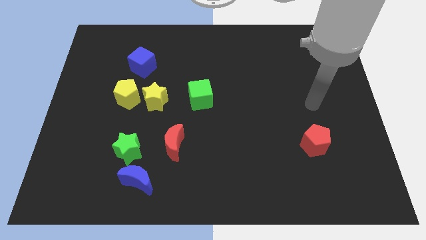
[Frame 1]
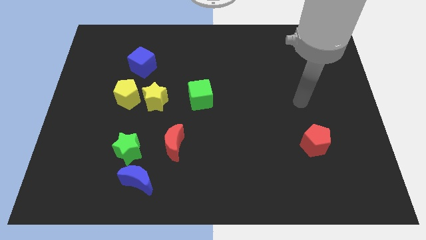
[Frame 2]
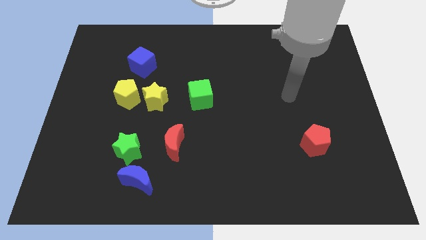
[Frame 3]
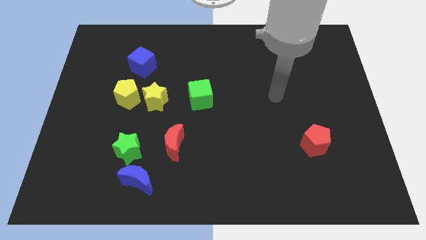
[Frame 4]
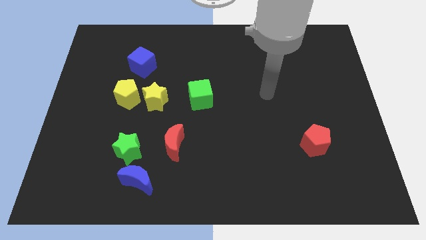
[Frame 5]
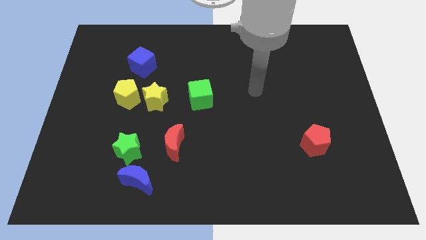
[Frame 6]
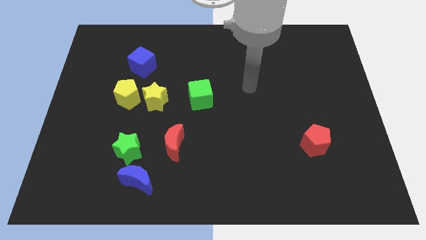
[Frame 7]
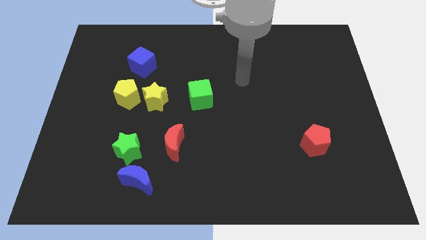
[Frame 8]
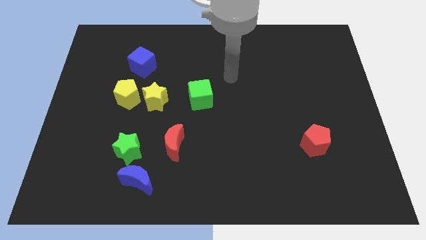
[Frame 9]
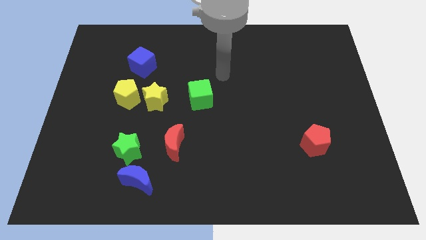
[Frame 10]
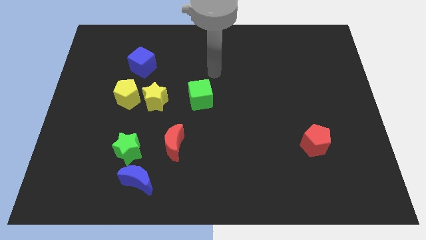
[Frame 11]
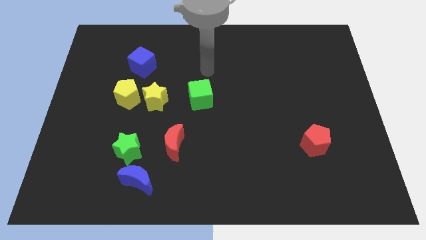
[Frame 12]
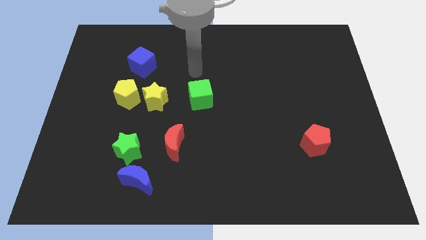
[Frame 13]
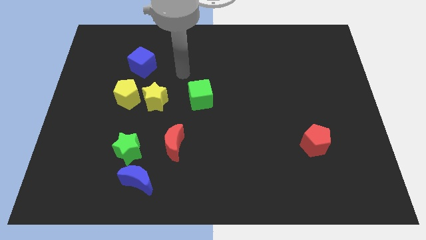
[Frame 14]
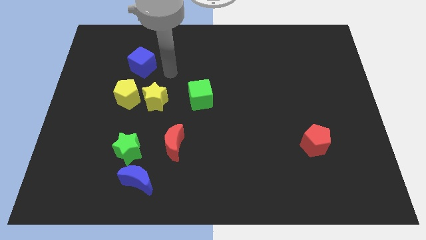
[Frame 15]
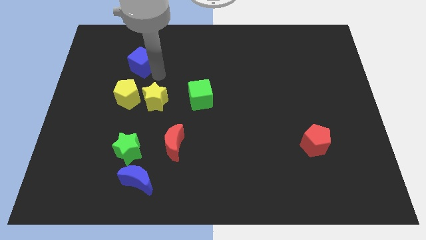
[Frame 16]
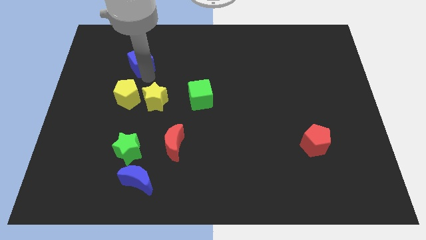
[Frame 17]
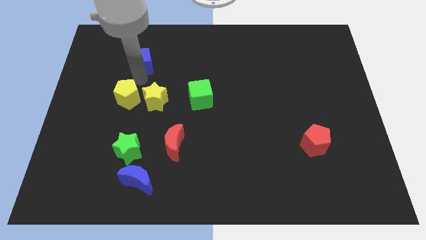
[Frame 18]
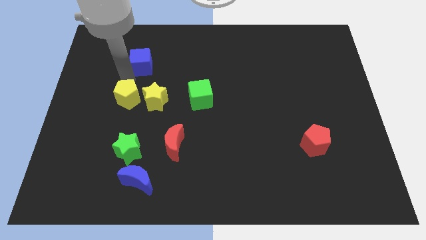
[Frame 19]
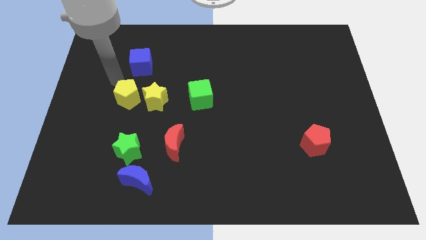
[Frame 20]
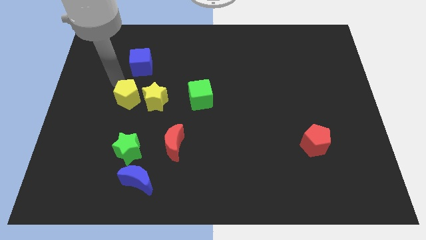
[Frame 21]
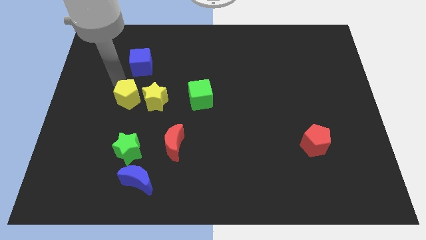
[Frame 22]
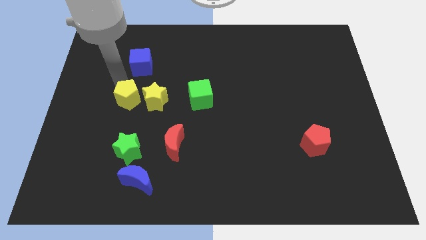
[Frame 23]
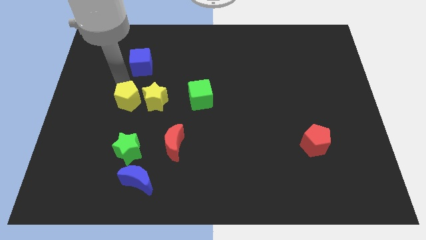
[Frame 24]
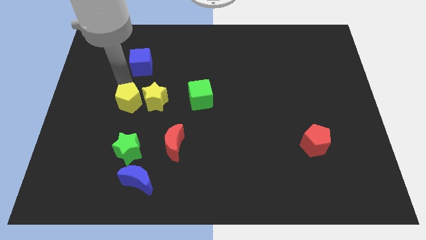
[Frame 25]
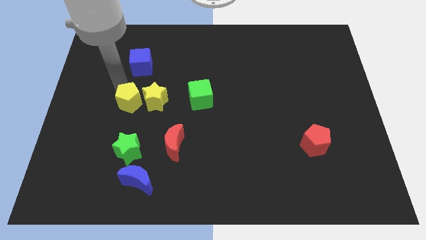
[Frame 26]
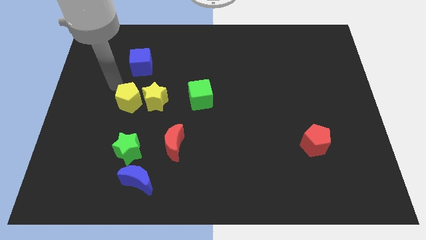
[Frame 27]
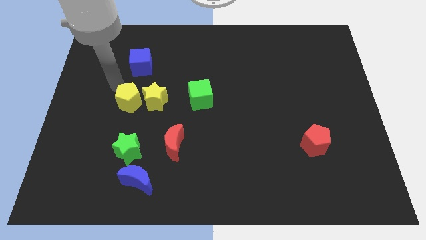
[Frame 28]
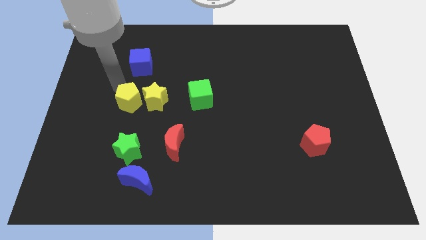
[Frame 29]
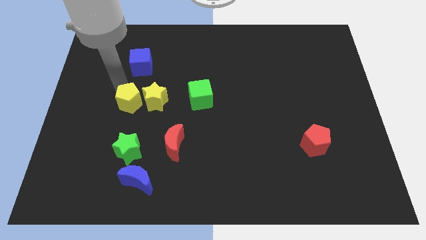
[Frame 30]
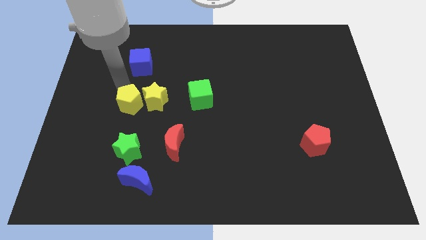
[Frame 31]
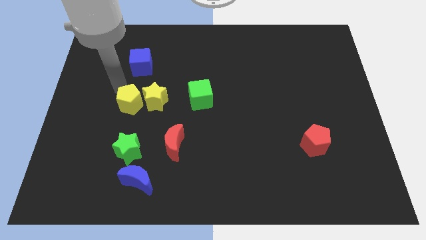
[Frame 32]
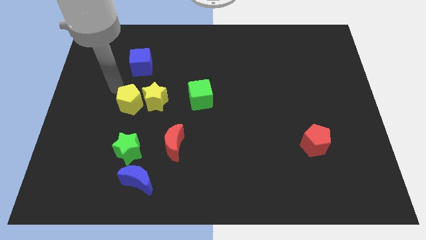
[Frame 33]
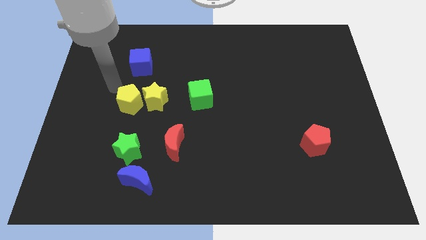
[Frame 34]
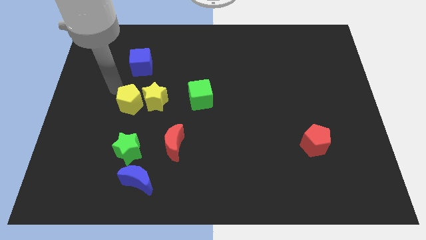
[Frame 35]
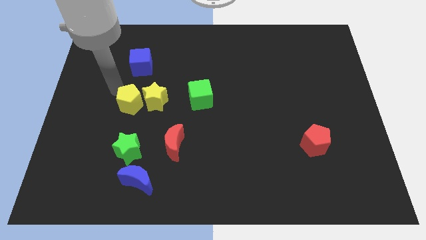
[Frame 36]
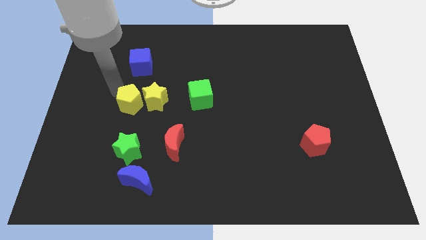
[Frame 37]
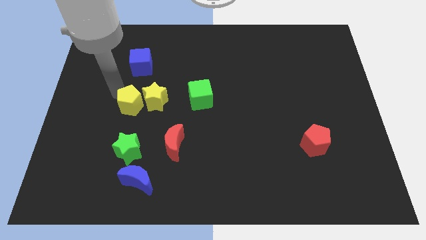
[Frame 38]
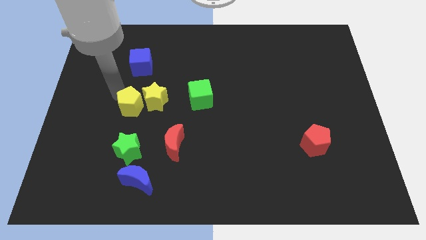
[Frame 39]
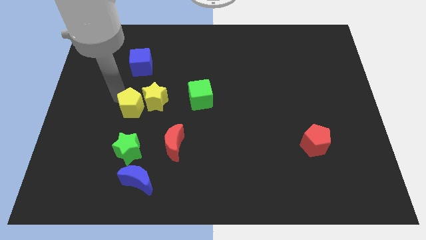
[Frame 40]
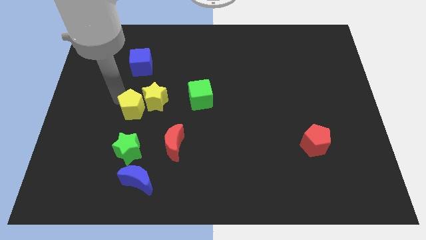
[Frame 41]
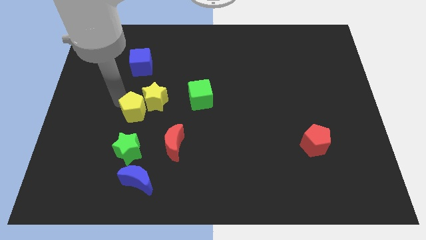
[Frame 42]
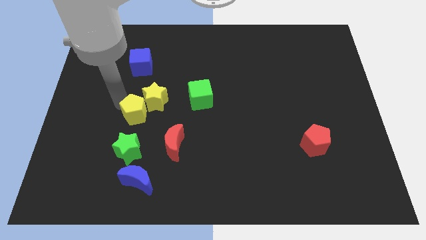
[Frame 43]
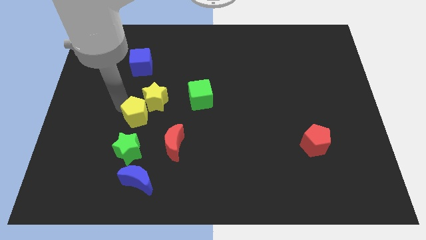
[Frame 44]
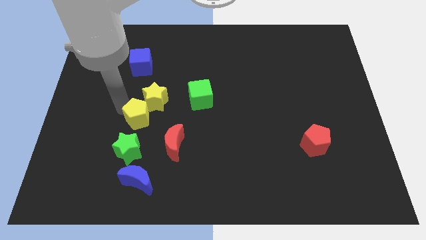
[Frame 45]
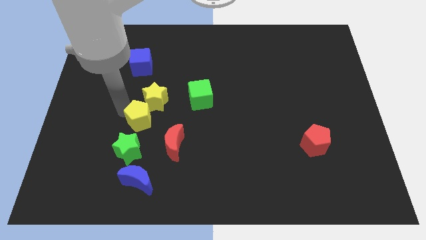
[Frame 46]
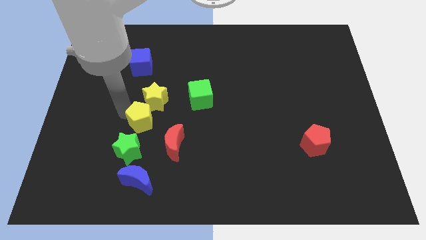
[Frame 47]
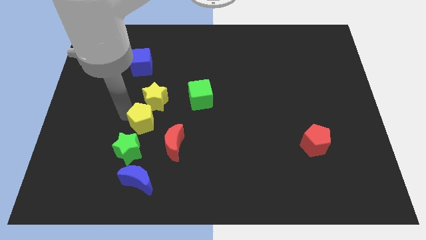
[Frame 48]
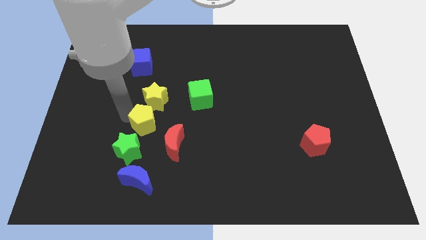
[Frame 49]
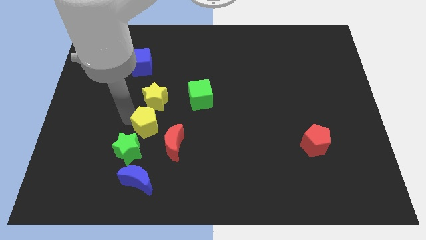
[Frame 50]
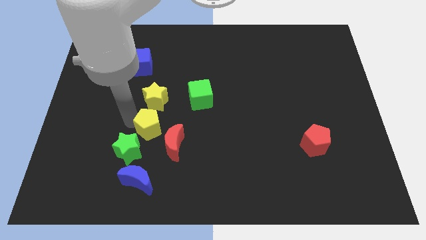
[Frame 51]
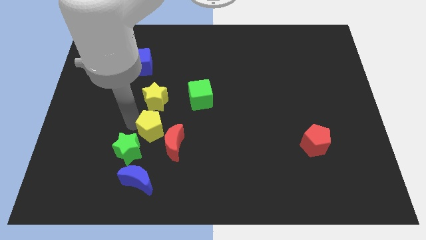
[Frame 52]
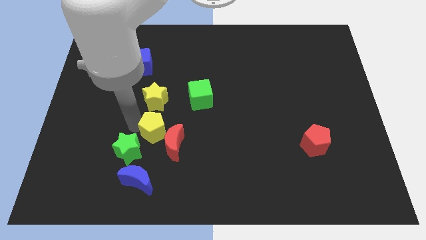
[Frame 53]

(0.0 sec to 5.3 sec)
put the yellow pentagon to the red moon
